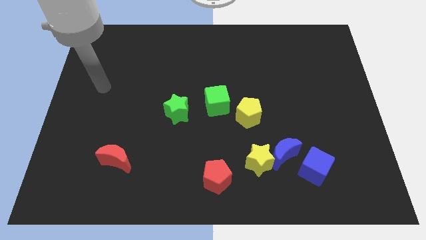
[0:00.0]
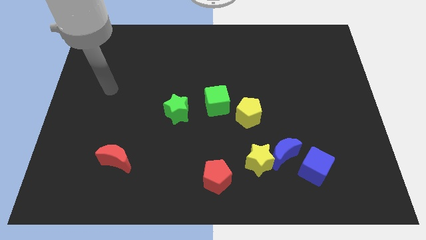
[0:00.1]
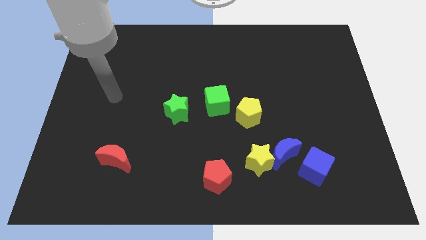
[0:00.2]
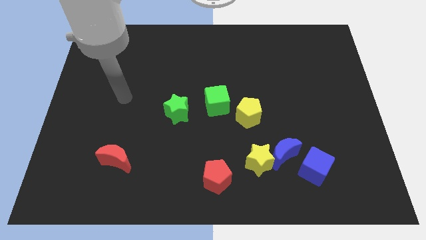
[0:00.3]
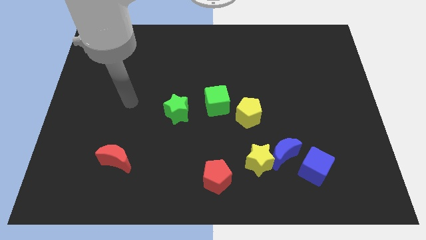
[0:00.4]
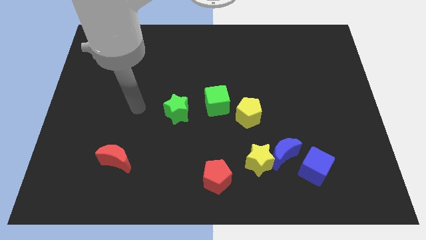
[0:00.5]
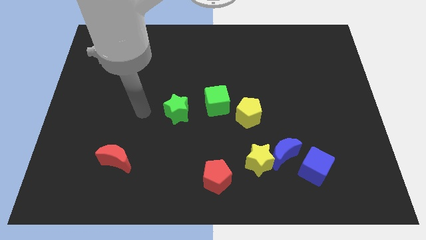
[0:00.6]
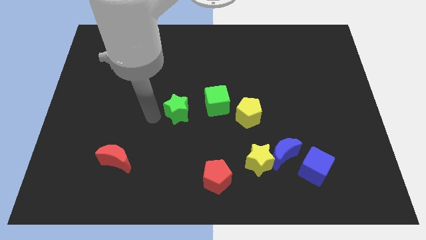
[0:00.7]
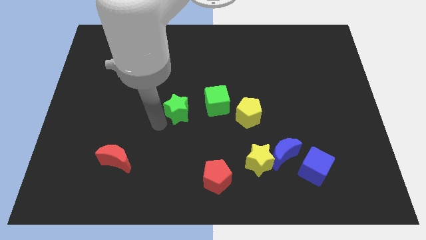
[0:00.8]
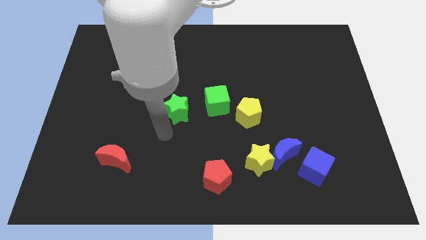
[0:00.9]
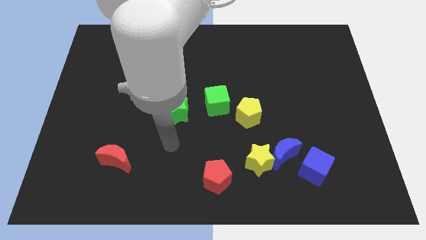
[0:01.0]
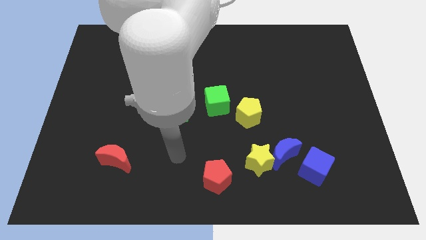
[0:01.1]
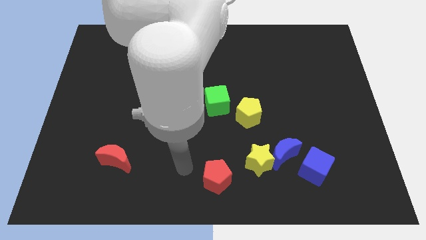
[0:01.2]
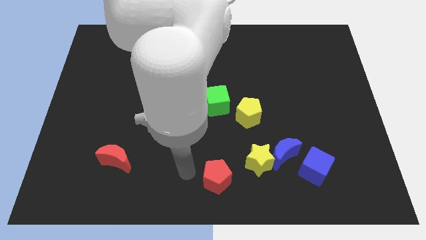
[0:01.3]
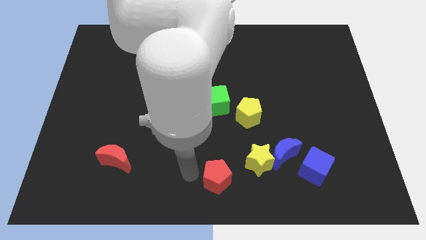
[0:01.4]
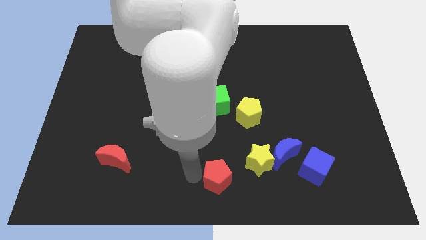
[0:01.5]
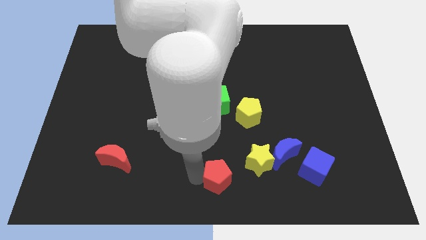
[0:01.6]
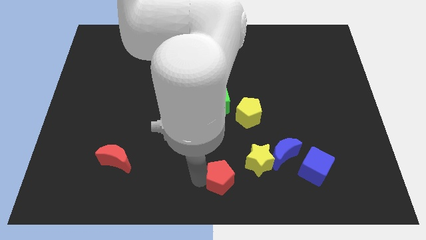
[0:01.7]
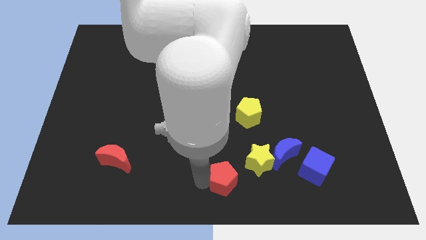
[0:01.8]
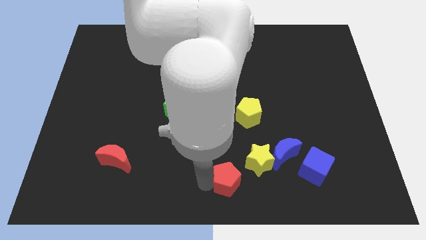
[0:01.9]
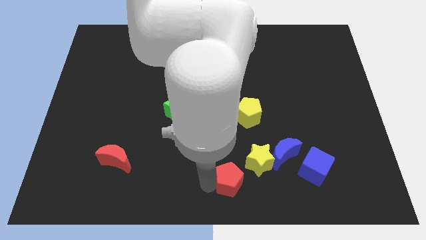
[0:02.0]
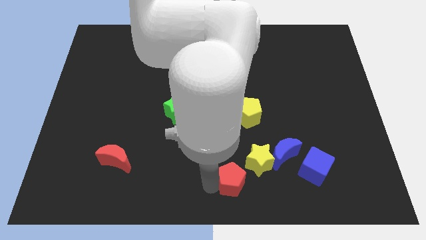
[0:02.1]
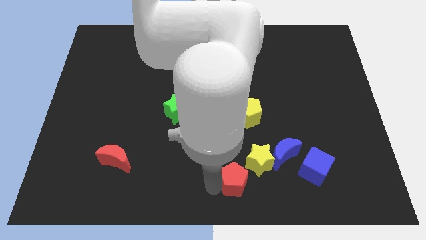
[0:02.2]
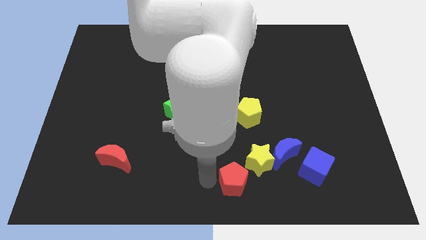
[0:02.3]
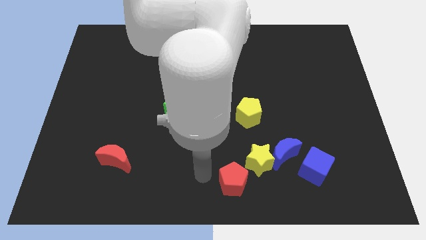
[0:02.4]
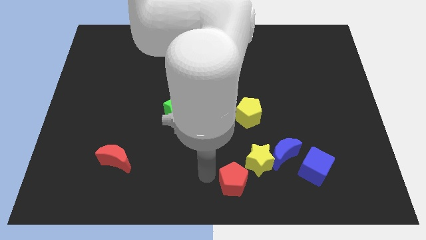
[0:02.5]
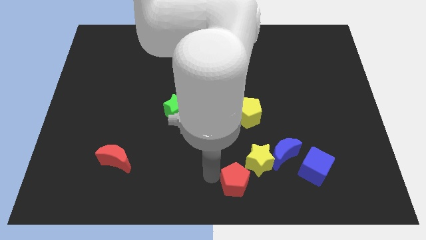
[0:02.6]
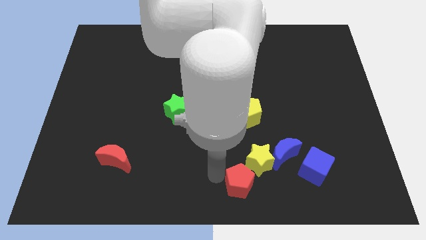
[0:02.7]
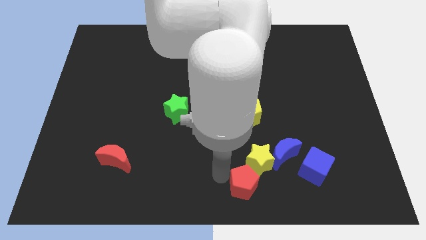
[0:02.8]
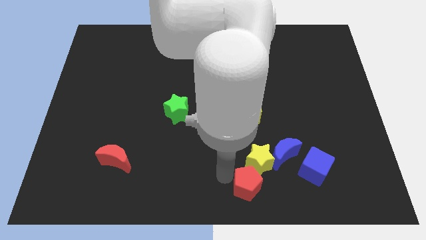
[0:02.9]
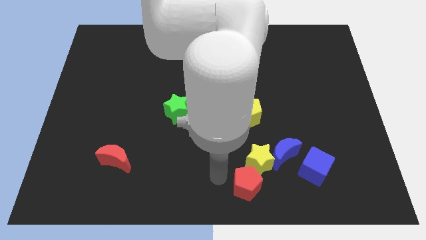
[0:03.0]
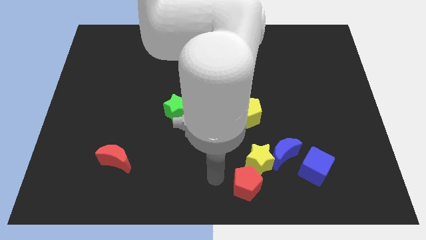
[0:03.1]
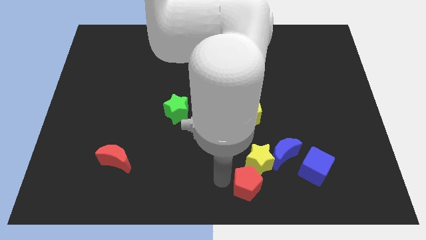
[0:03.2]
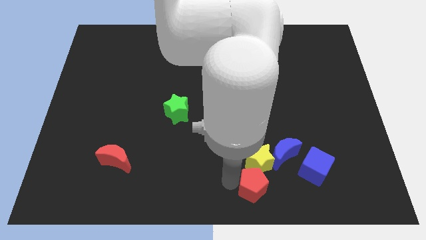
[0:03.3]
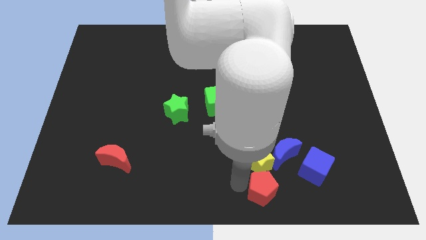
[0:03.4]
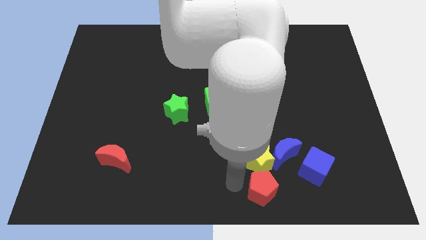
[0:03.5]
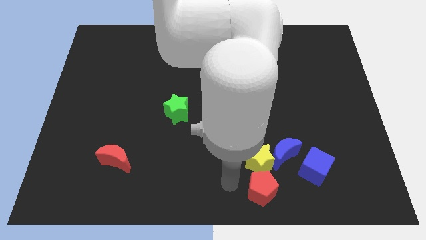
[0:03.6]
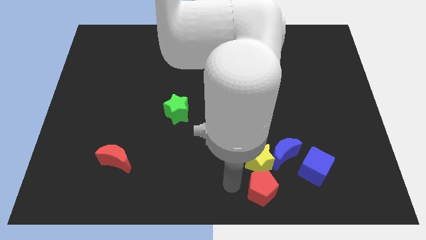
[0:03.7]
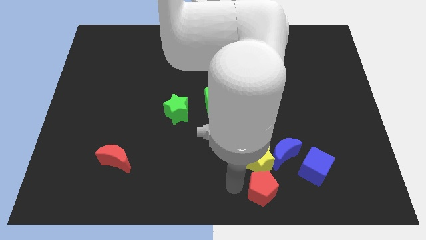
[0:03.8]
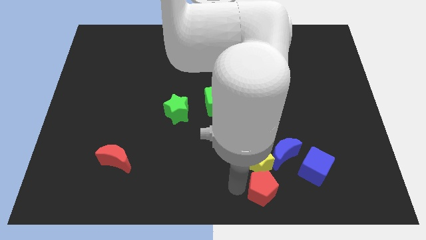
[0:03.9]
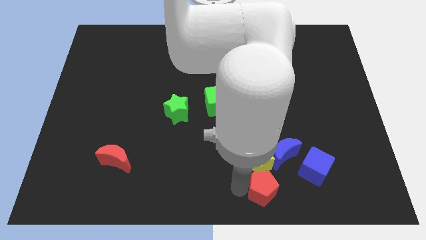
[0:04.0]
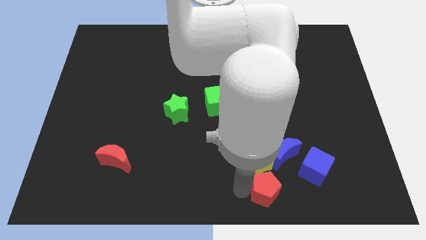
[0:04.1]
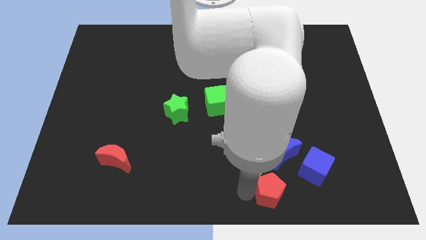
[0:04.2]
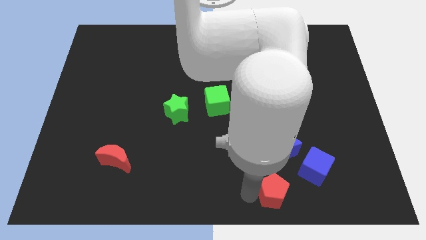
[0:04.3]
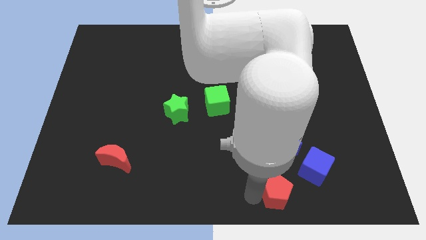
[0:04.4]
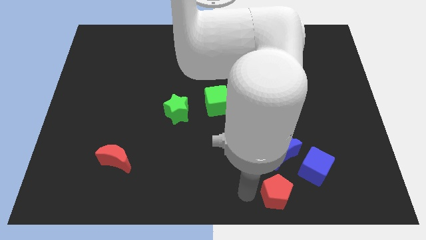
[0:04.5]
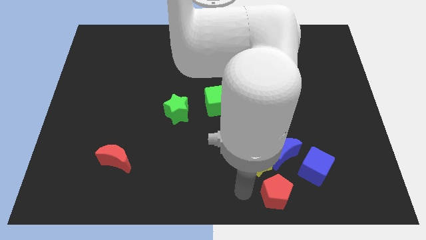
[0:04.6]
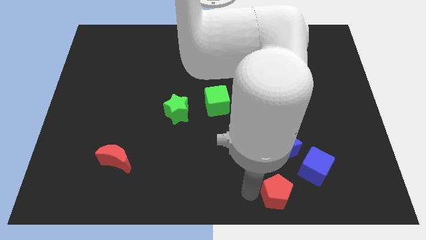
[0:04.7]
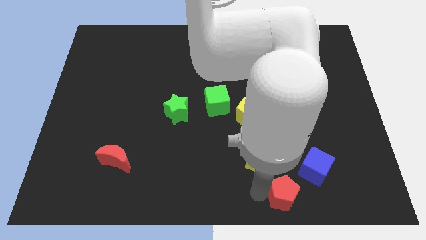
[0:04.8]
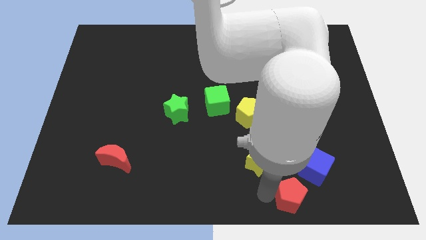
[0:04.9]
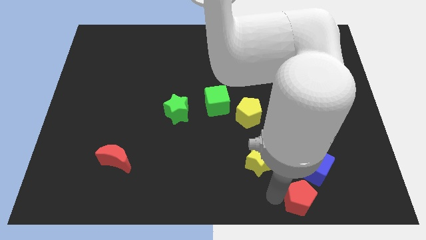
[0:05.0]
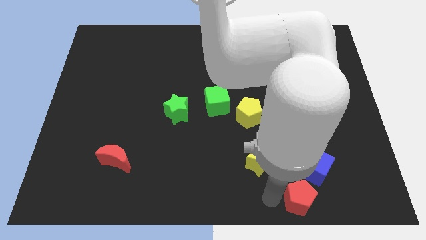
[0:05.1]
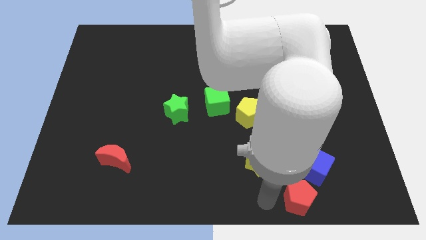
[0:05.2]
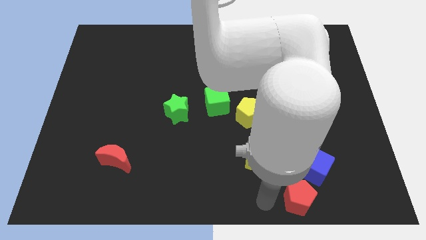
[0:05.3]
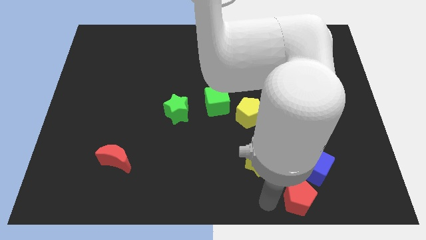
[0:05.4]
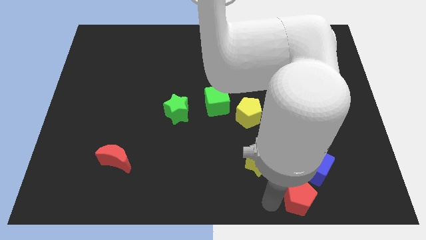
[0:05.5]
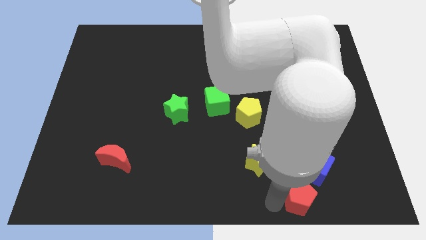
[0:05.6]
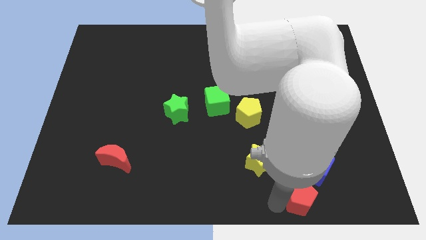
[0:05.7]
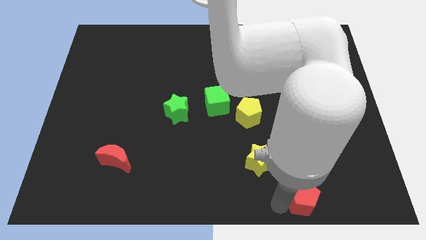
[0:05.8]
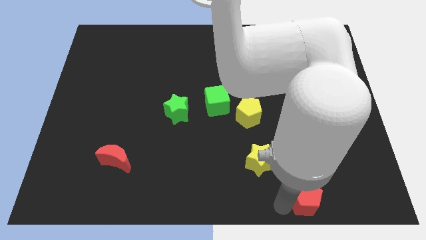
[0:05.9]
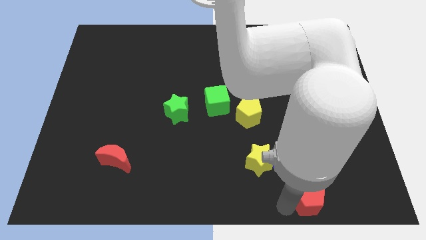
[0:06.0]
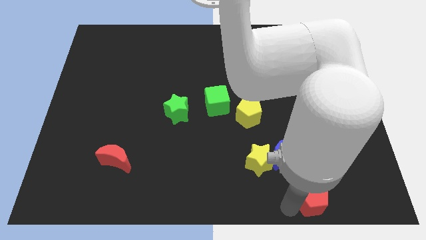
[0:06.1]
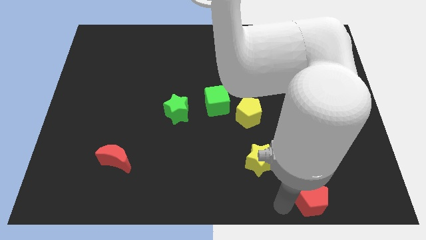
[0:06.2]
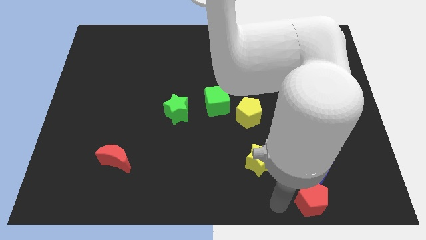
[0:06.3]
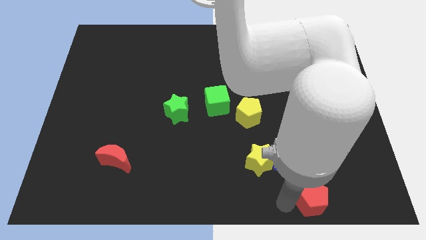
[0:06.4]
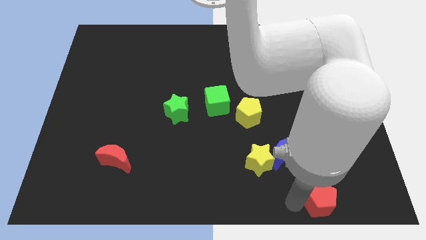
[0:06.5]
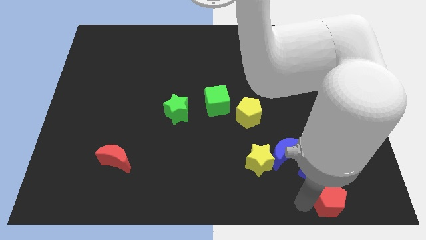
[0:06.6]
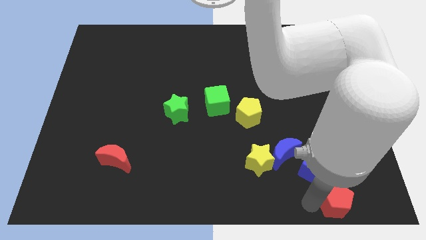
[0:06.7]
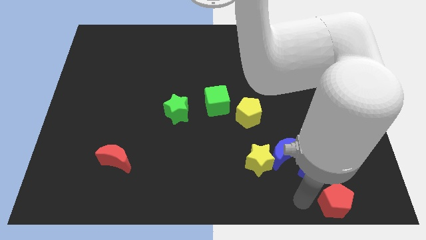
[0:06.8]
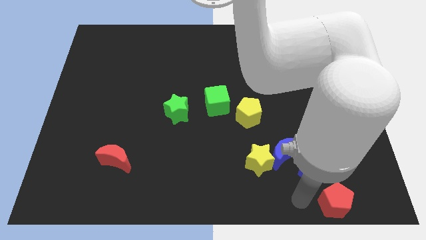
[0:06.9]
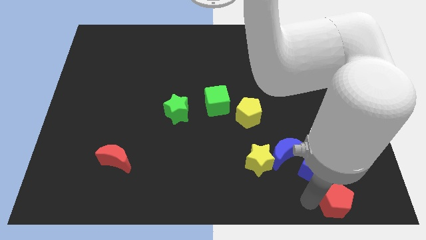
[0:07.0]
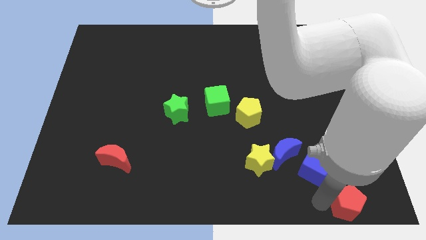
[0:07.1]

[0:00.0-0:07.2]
move the red pentagon to the bottom right corner
